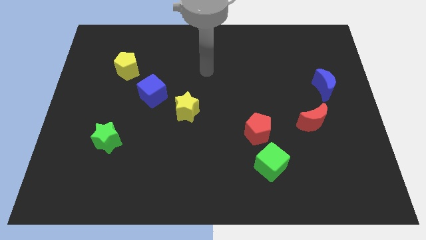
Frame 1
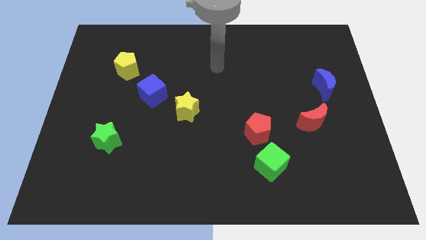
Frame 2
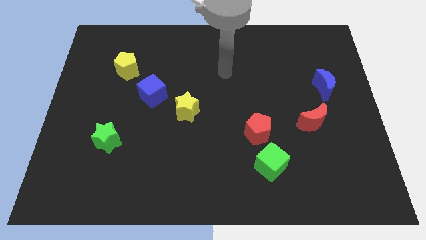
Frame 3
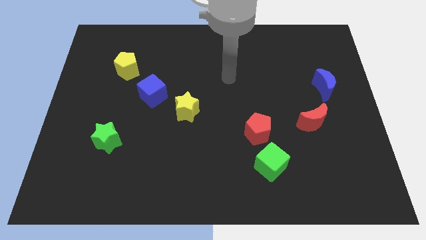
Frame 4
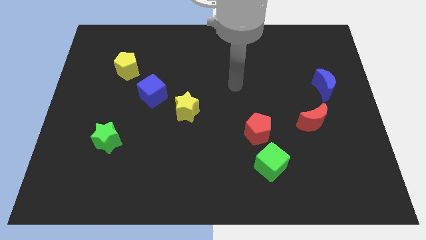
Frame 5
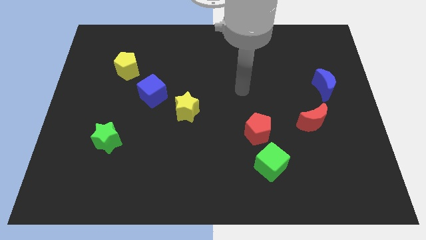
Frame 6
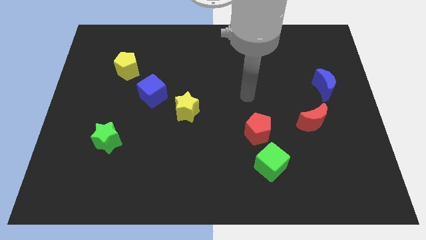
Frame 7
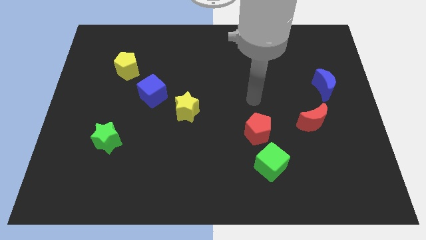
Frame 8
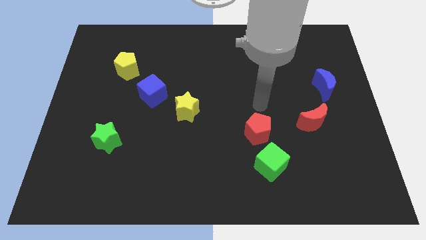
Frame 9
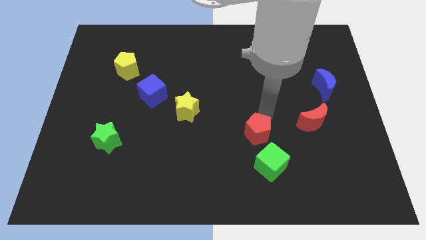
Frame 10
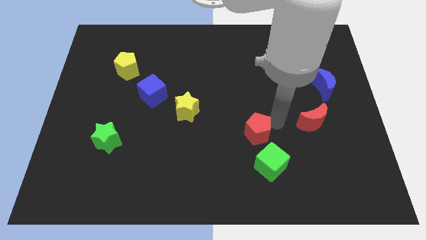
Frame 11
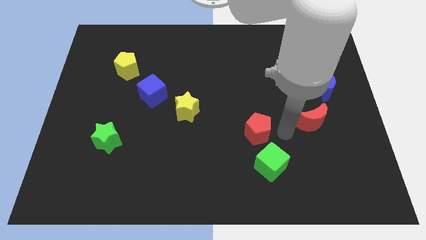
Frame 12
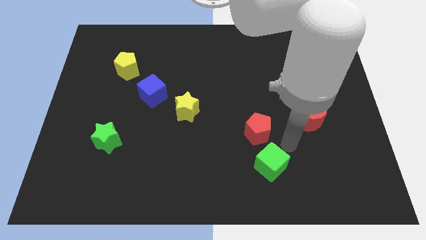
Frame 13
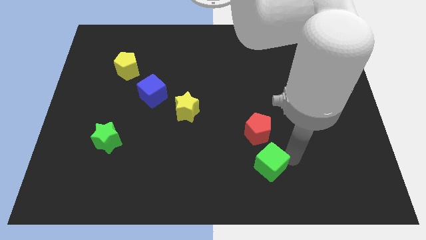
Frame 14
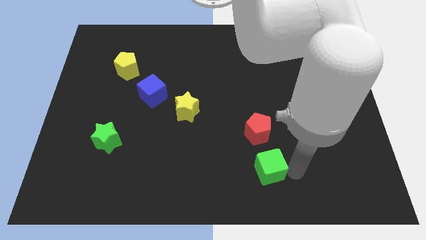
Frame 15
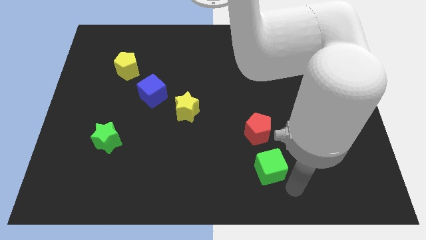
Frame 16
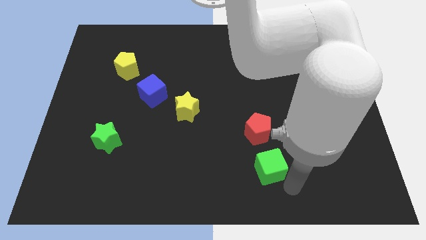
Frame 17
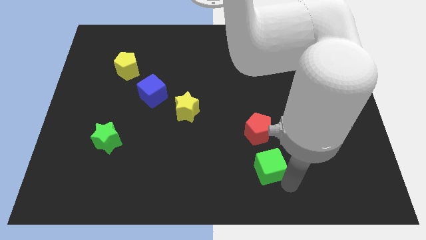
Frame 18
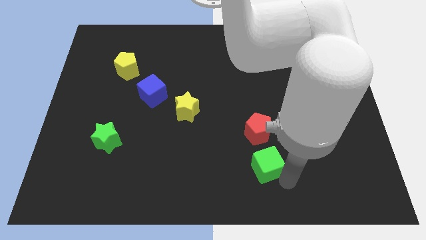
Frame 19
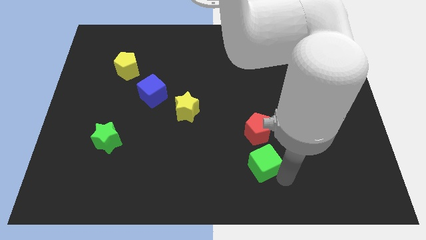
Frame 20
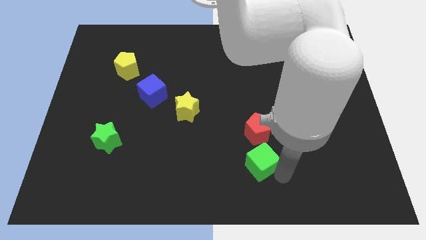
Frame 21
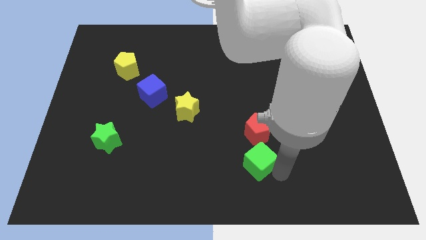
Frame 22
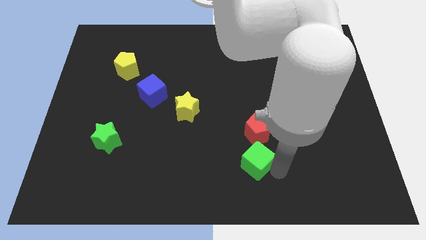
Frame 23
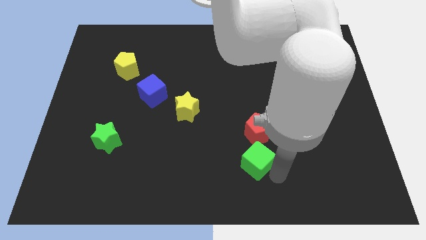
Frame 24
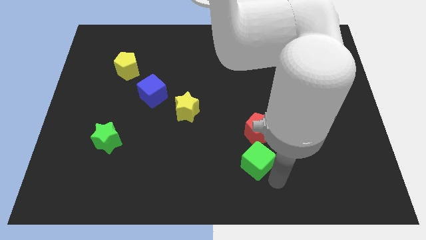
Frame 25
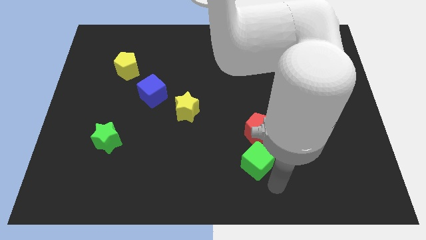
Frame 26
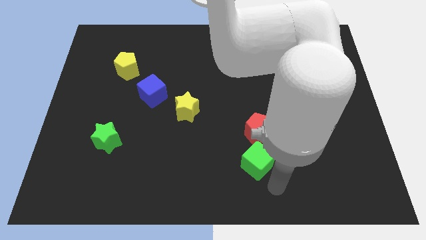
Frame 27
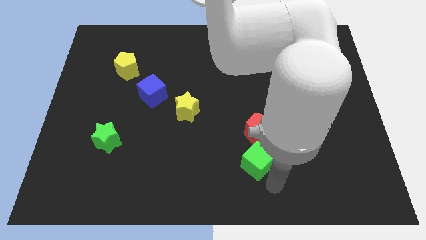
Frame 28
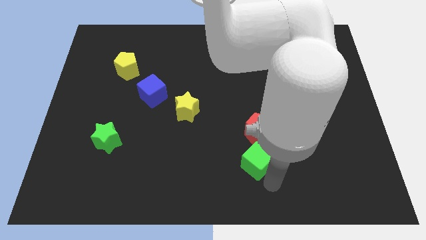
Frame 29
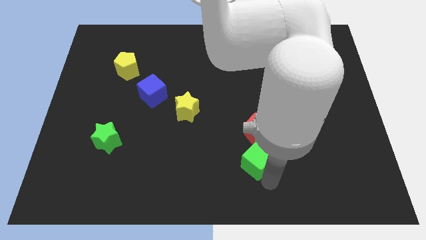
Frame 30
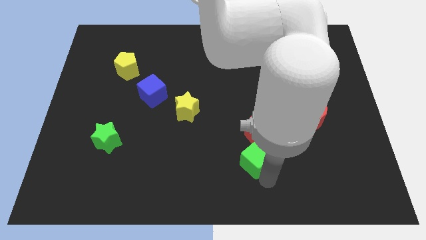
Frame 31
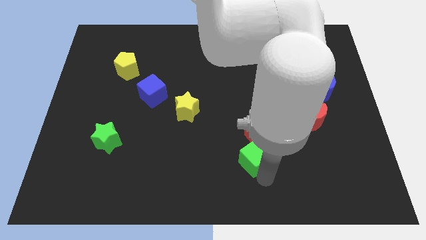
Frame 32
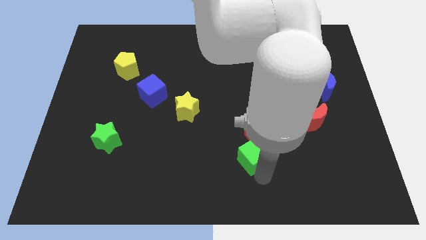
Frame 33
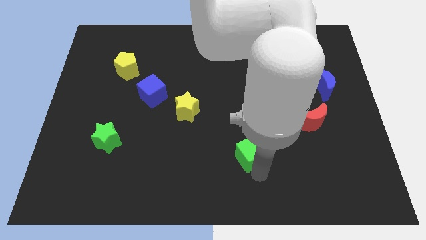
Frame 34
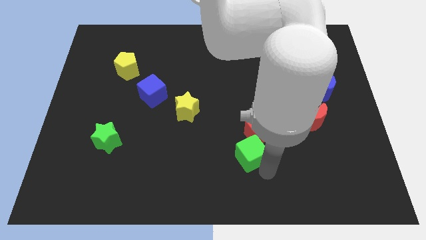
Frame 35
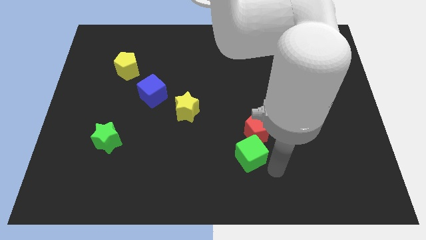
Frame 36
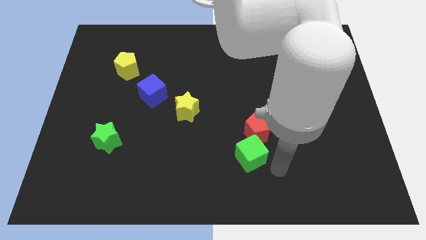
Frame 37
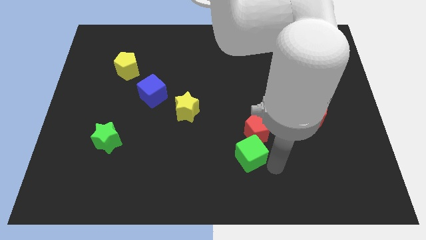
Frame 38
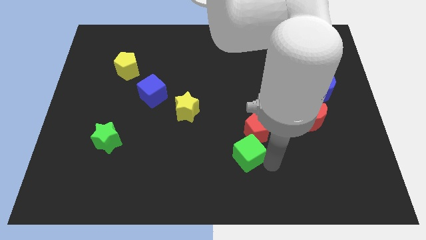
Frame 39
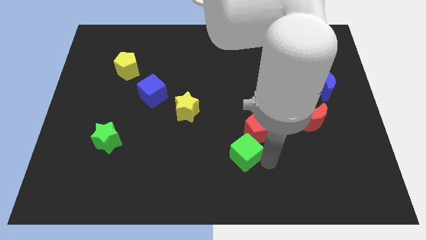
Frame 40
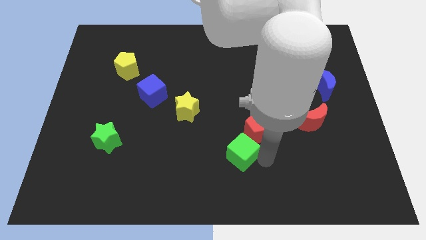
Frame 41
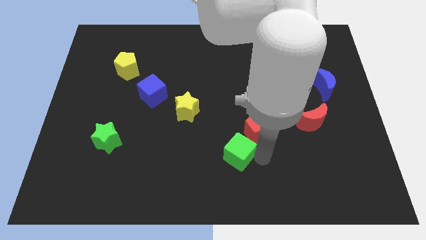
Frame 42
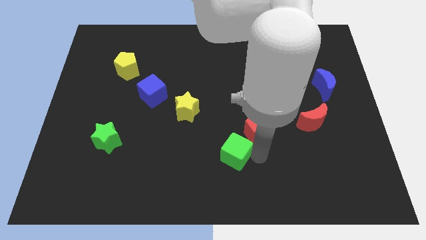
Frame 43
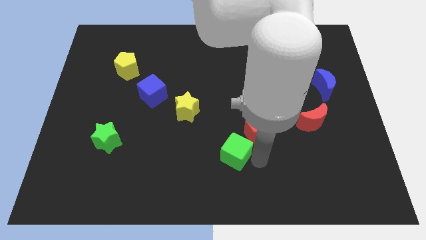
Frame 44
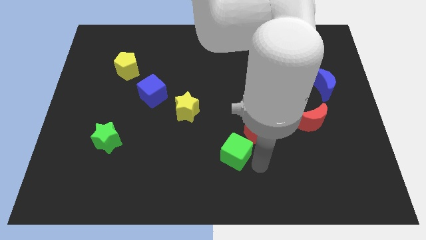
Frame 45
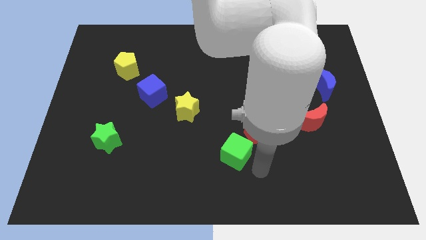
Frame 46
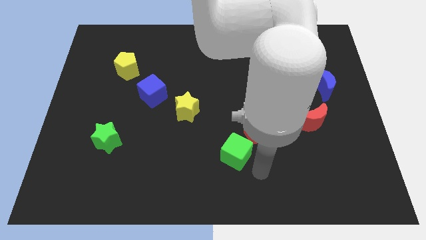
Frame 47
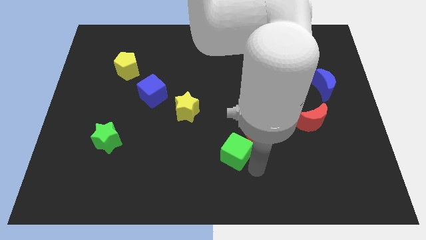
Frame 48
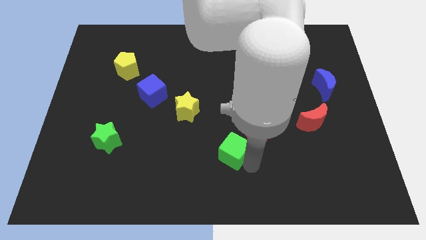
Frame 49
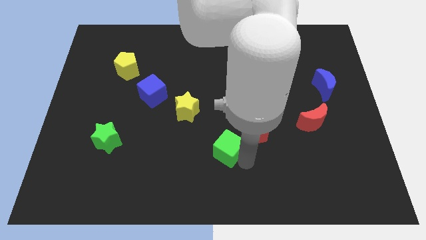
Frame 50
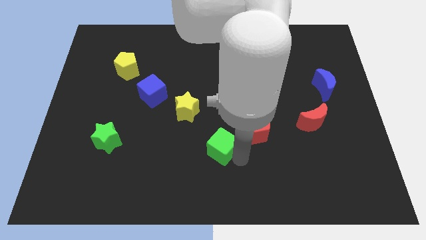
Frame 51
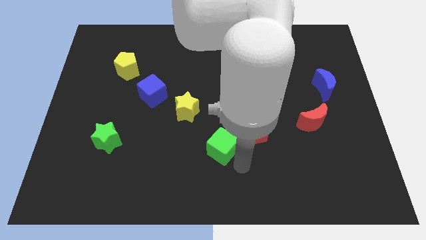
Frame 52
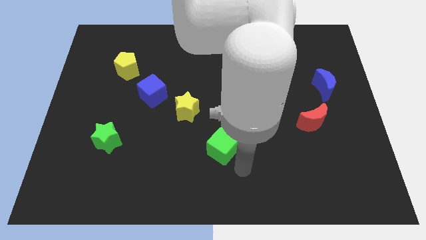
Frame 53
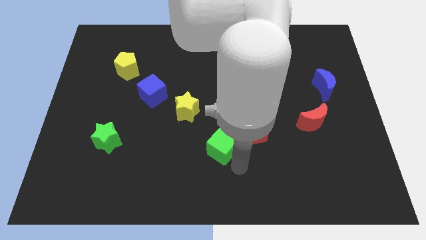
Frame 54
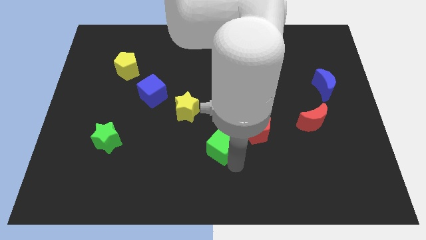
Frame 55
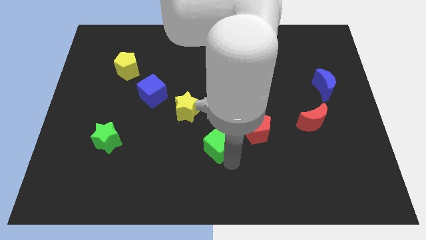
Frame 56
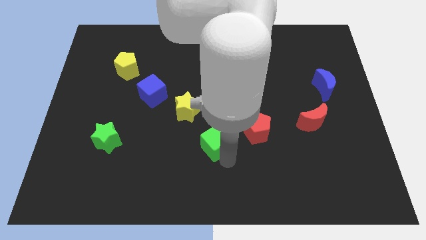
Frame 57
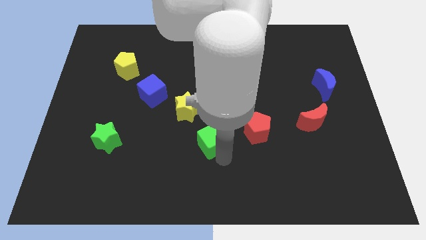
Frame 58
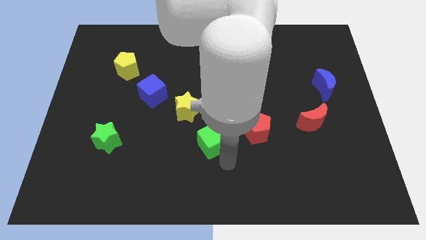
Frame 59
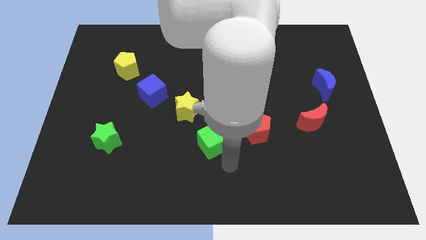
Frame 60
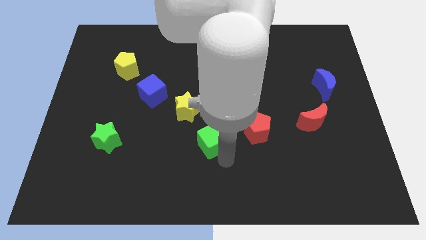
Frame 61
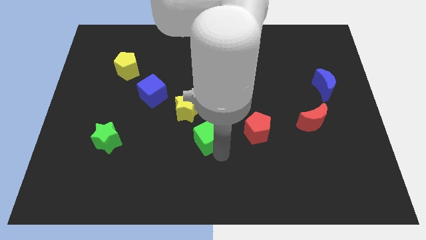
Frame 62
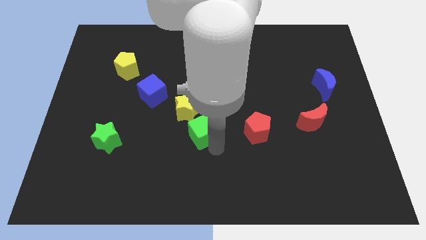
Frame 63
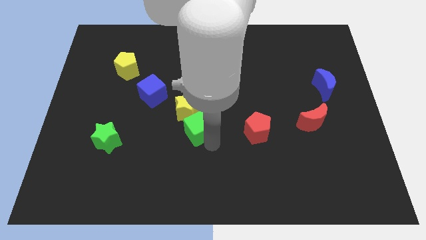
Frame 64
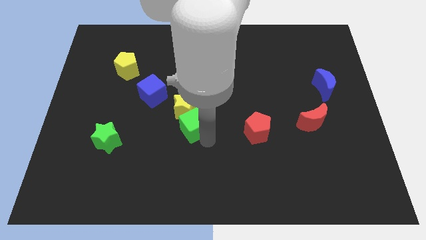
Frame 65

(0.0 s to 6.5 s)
move the green cube to the yellow star
